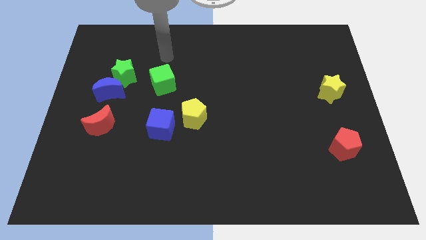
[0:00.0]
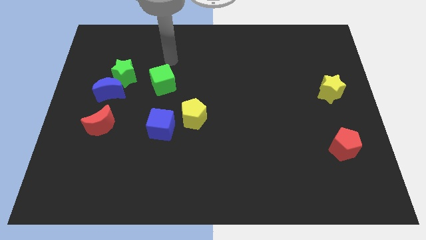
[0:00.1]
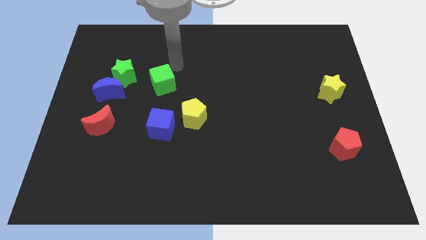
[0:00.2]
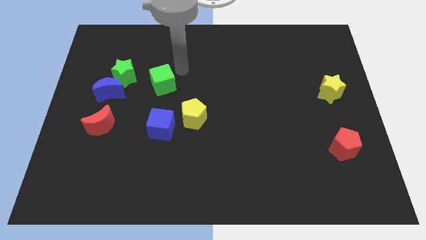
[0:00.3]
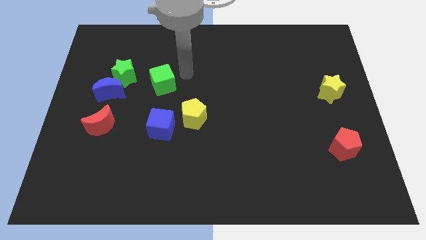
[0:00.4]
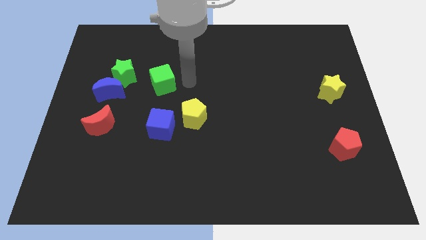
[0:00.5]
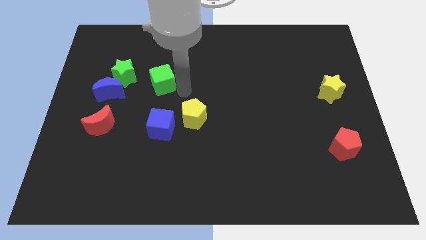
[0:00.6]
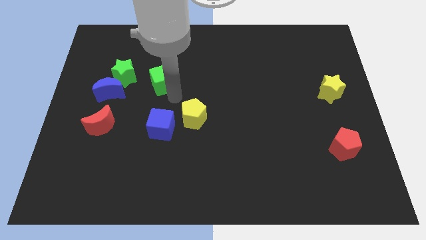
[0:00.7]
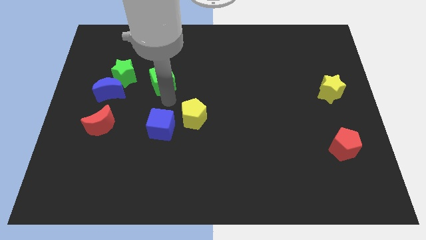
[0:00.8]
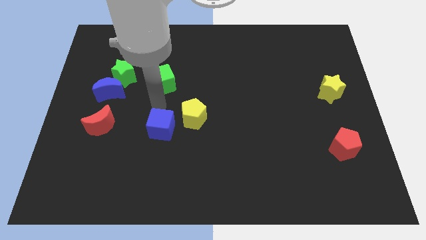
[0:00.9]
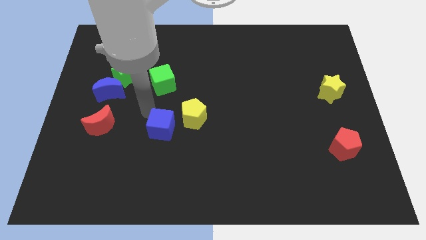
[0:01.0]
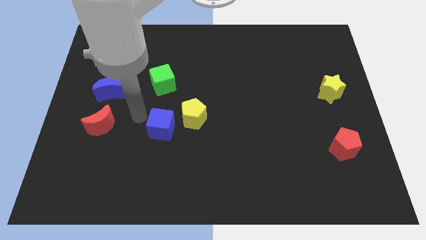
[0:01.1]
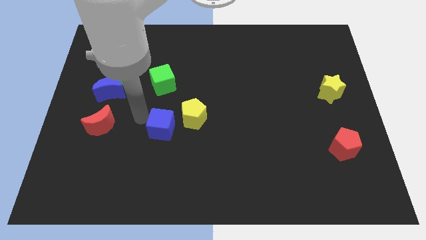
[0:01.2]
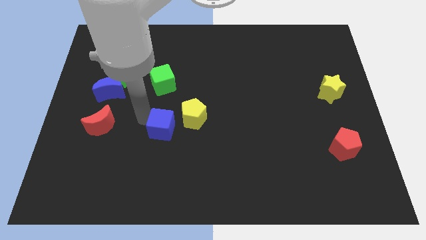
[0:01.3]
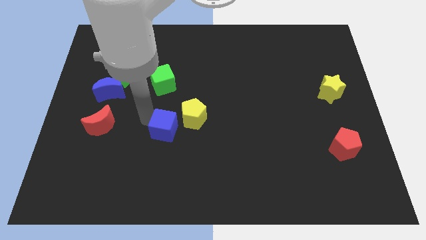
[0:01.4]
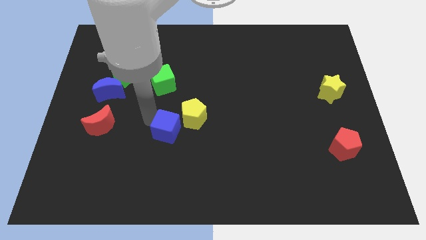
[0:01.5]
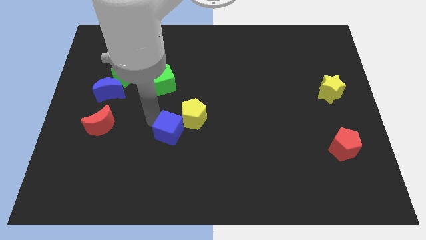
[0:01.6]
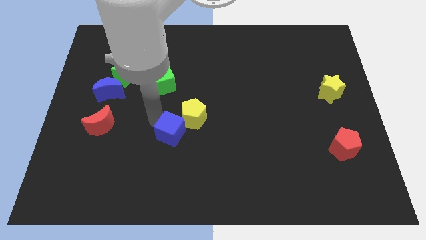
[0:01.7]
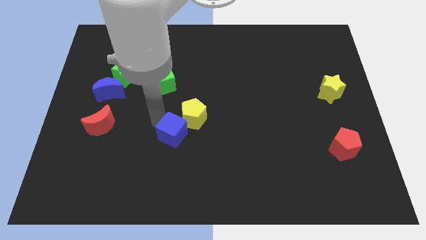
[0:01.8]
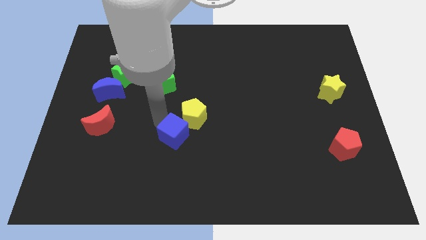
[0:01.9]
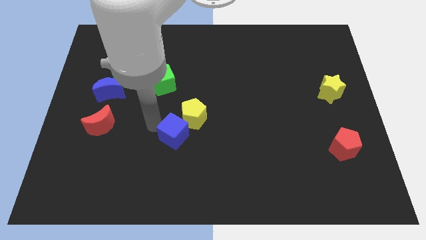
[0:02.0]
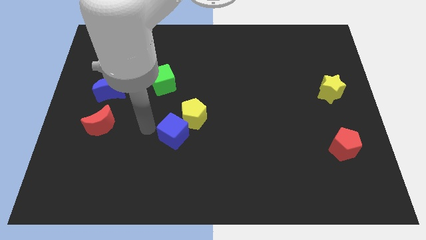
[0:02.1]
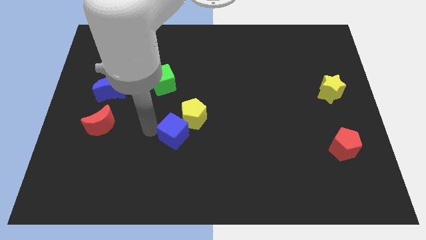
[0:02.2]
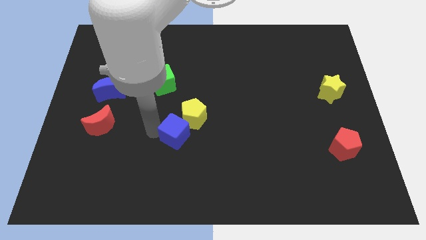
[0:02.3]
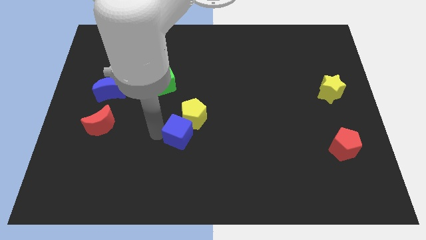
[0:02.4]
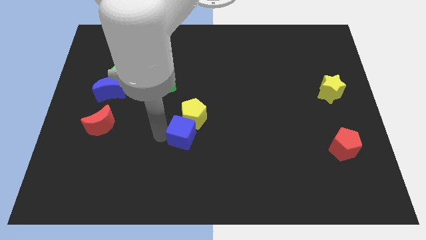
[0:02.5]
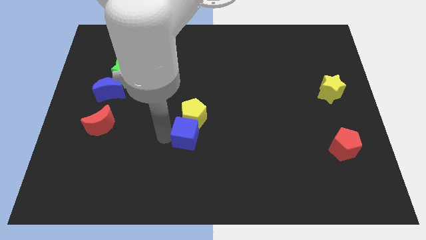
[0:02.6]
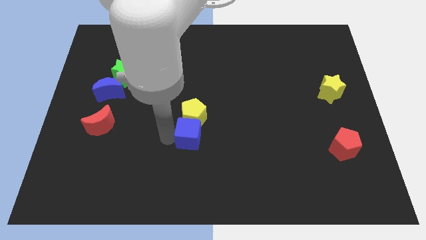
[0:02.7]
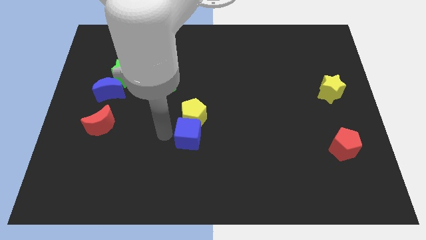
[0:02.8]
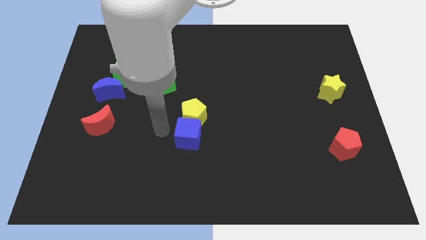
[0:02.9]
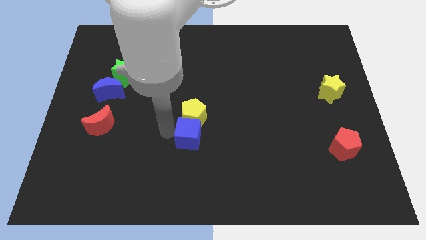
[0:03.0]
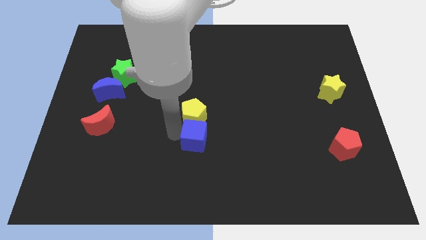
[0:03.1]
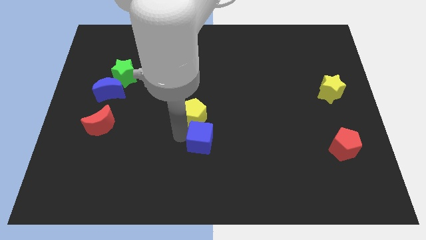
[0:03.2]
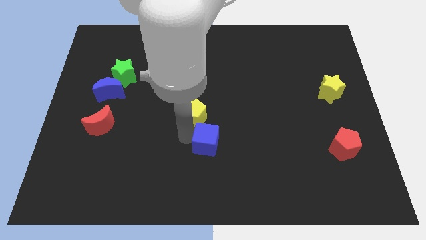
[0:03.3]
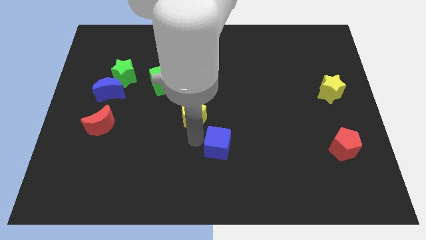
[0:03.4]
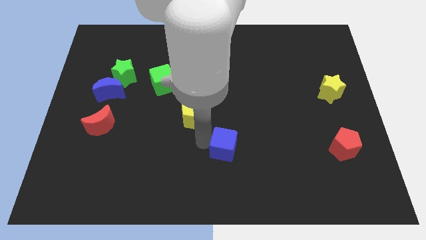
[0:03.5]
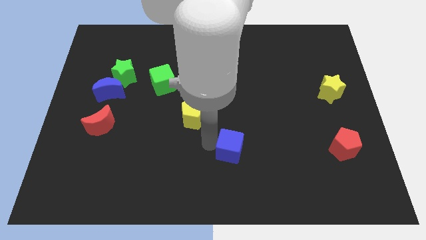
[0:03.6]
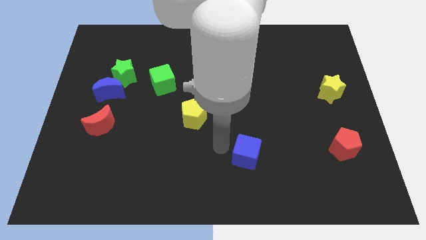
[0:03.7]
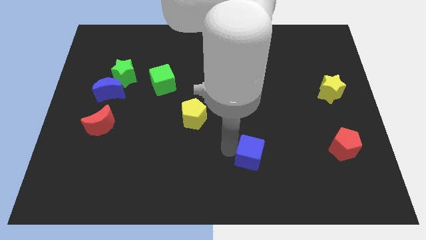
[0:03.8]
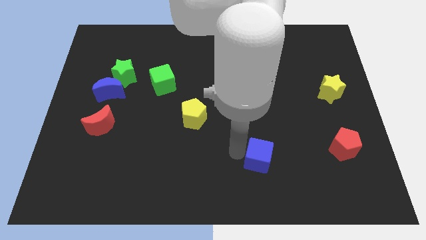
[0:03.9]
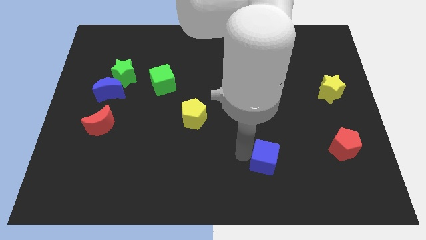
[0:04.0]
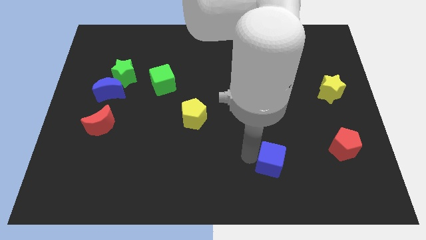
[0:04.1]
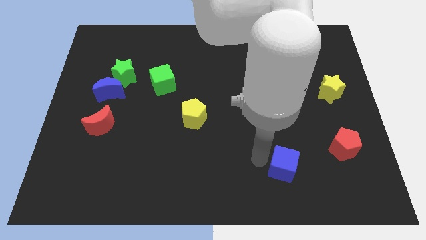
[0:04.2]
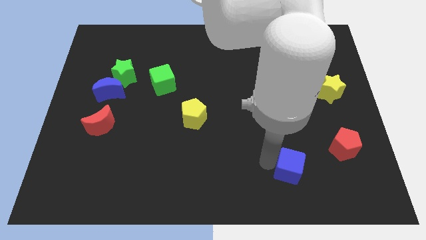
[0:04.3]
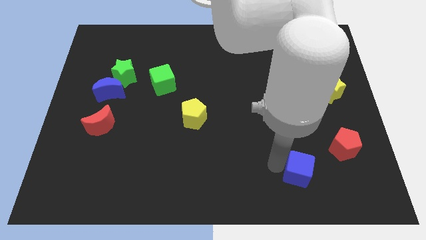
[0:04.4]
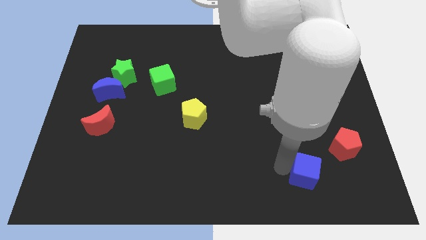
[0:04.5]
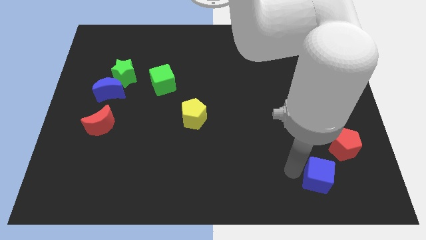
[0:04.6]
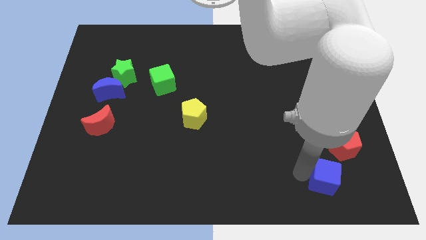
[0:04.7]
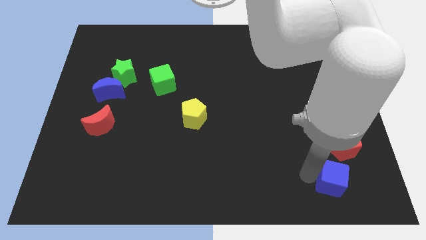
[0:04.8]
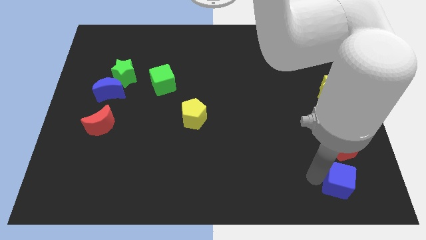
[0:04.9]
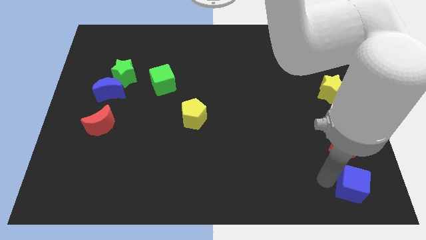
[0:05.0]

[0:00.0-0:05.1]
slide the blue cube to the lower right corner
